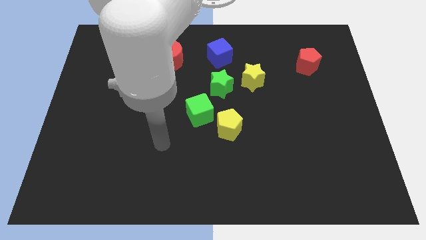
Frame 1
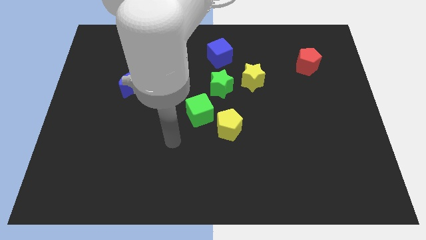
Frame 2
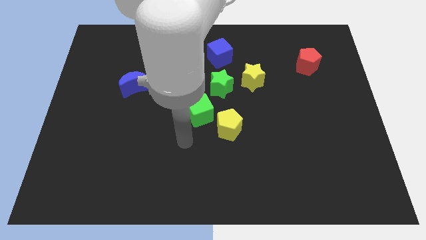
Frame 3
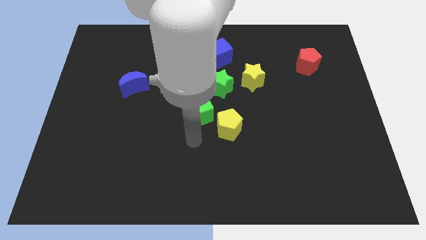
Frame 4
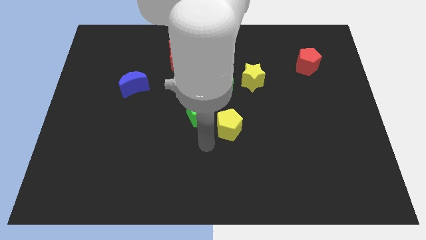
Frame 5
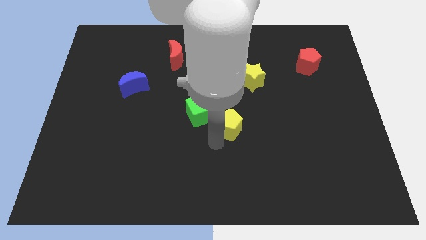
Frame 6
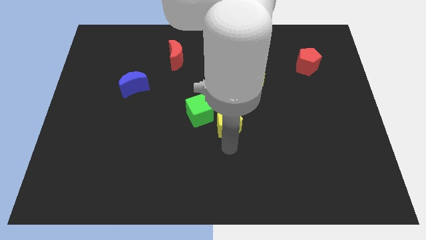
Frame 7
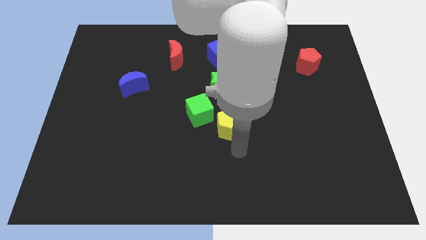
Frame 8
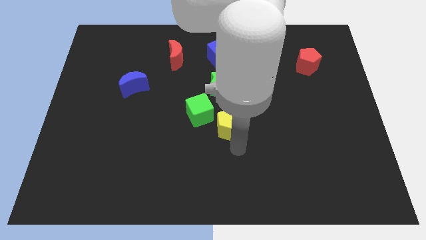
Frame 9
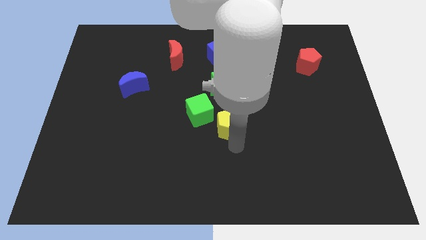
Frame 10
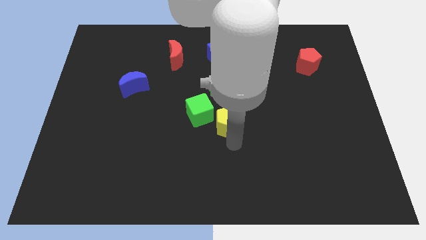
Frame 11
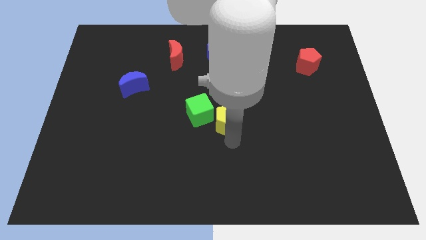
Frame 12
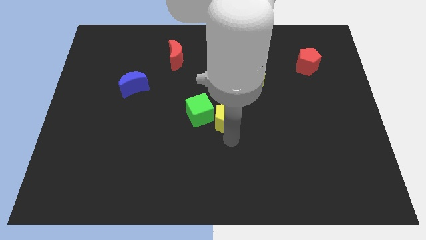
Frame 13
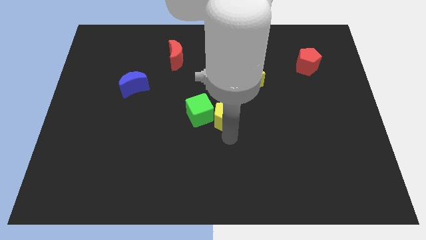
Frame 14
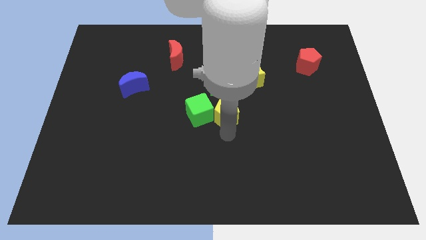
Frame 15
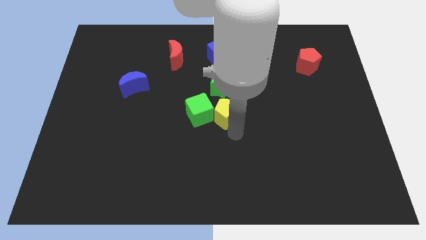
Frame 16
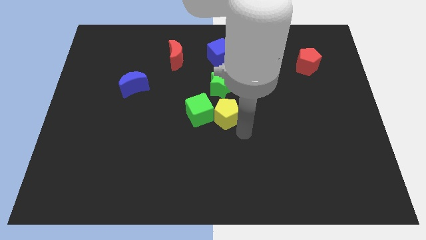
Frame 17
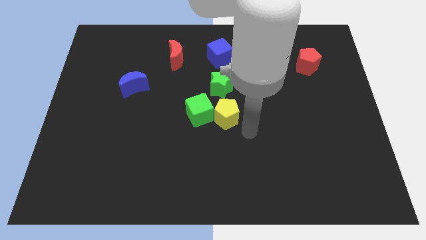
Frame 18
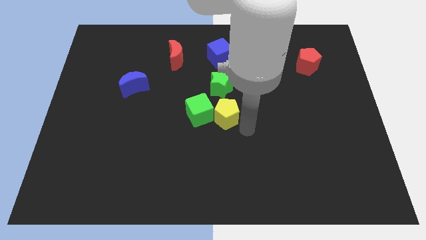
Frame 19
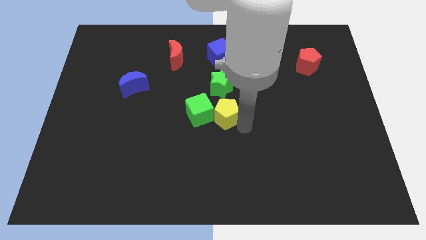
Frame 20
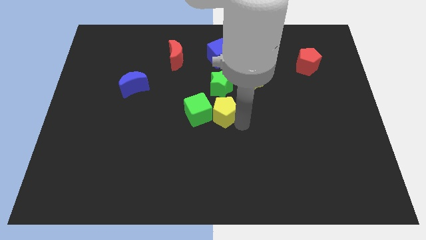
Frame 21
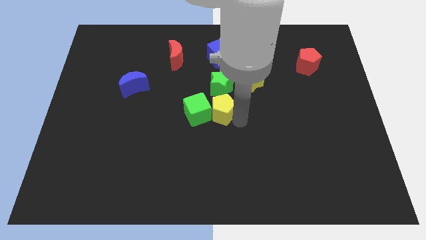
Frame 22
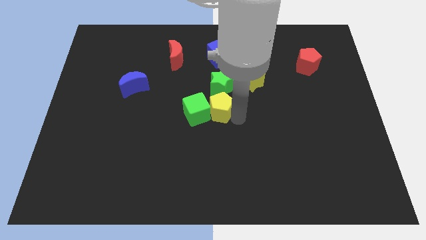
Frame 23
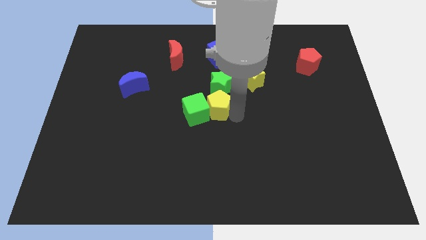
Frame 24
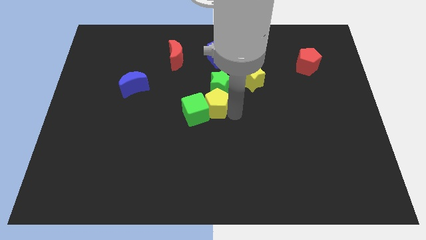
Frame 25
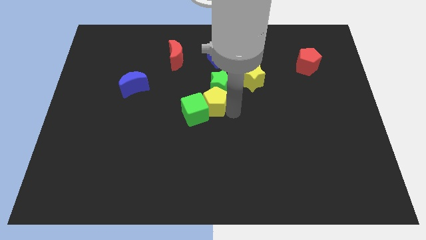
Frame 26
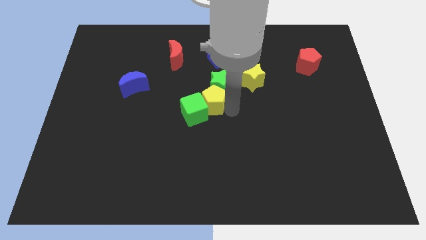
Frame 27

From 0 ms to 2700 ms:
move the yellow pentagon a bit diagonally up and left

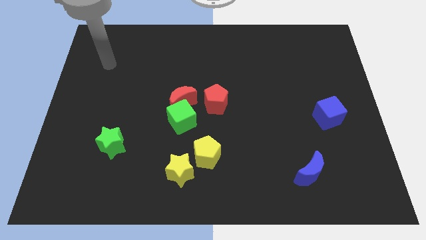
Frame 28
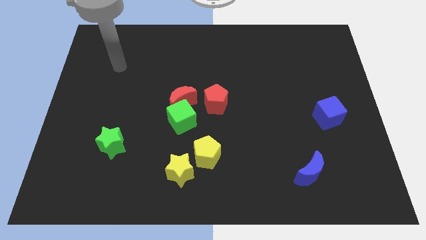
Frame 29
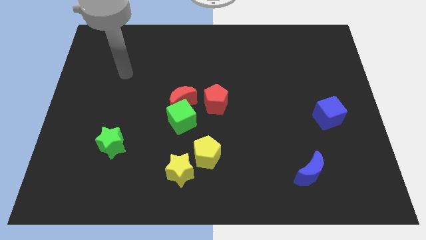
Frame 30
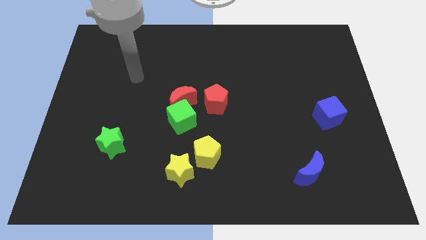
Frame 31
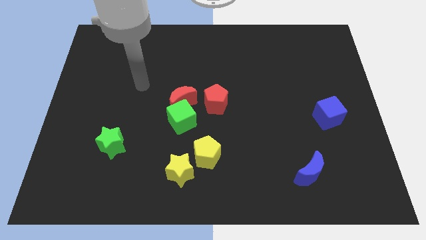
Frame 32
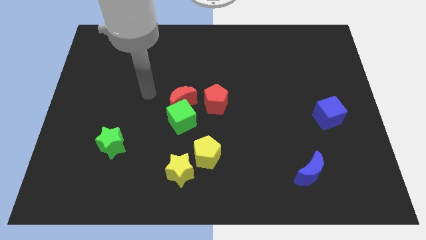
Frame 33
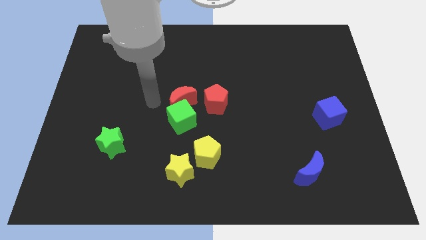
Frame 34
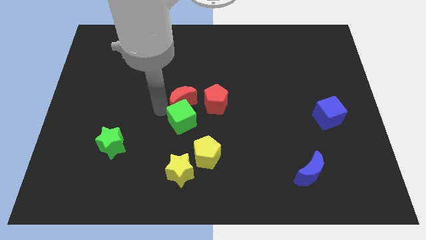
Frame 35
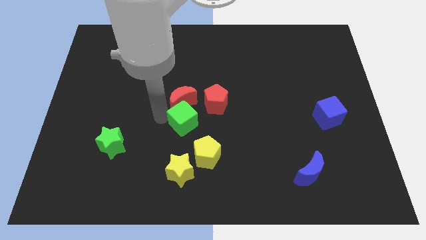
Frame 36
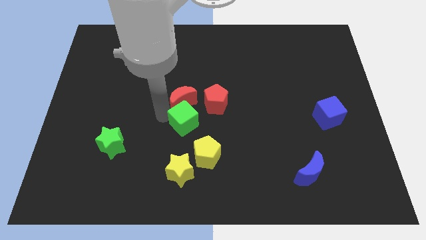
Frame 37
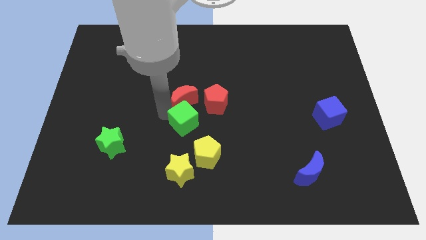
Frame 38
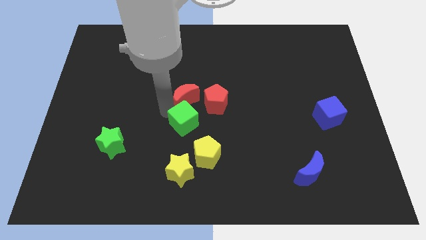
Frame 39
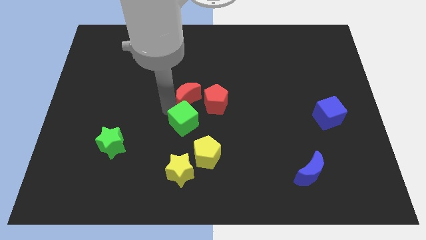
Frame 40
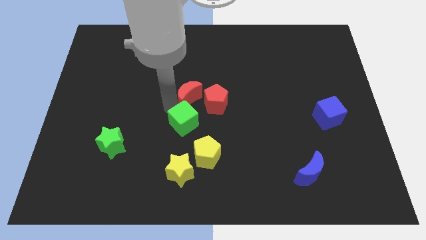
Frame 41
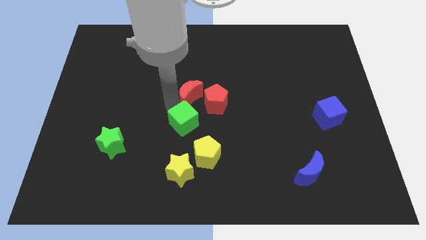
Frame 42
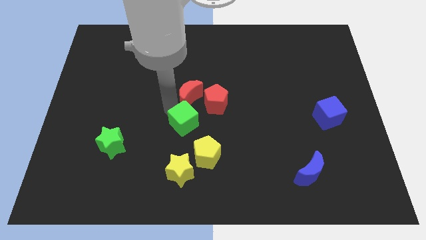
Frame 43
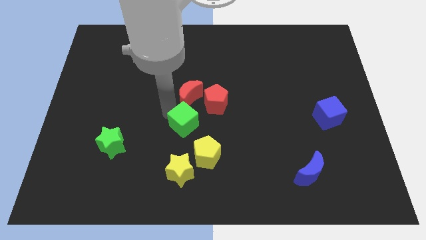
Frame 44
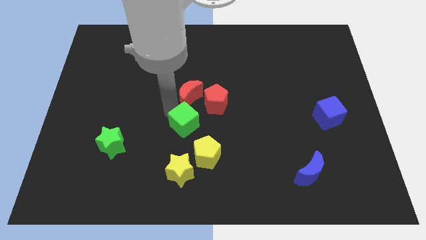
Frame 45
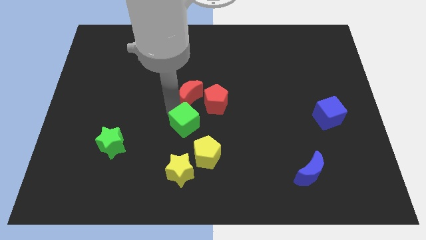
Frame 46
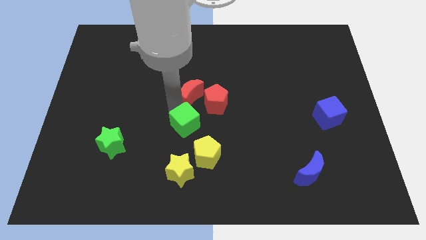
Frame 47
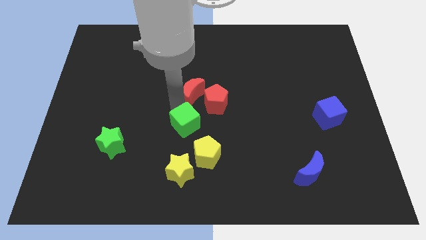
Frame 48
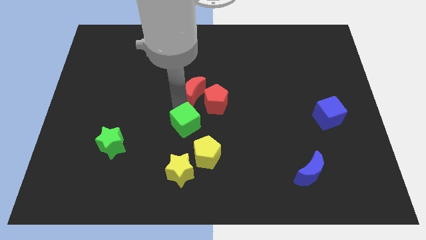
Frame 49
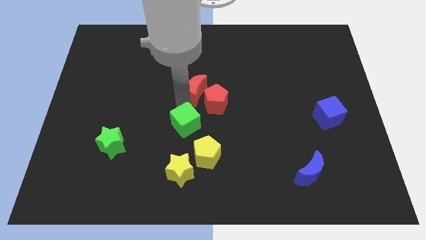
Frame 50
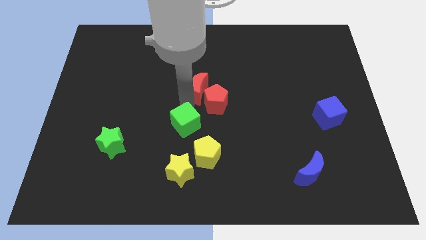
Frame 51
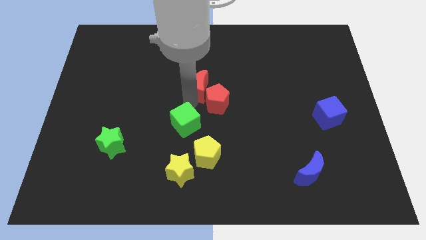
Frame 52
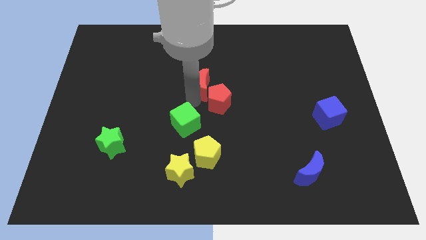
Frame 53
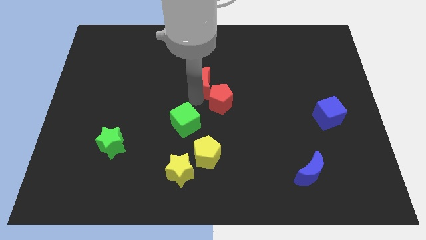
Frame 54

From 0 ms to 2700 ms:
slightly move the red moon up and to the right diagonally

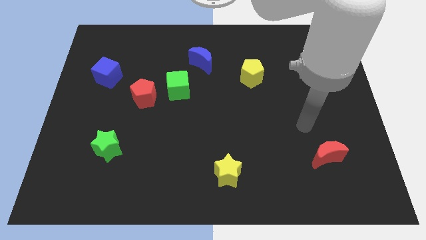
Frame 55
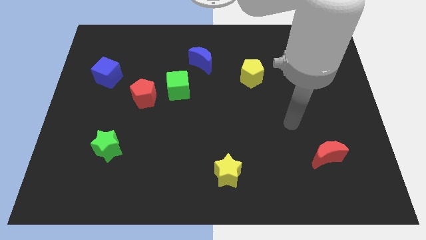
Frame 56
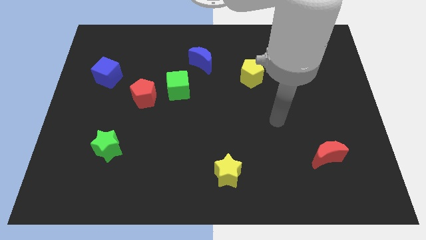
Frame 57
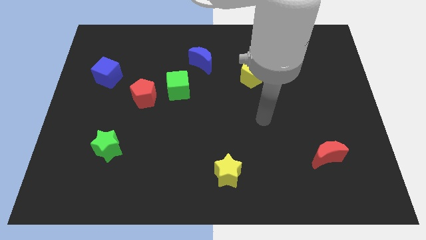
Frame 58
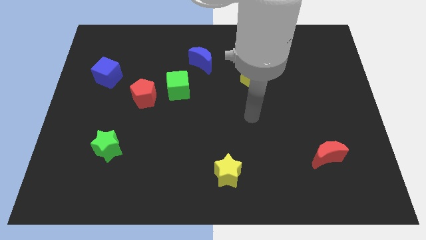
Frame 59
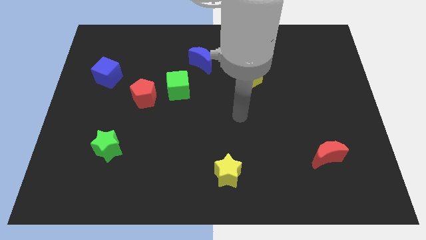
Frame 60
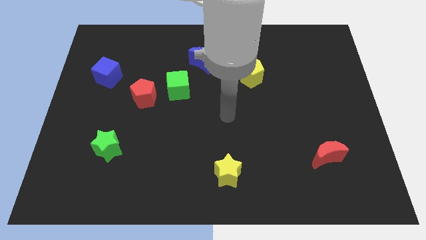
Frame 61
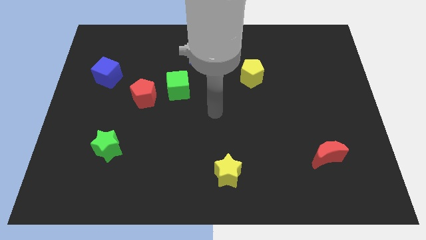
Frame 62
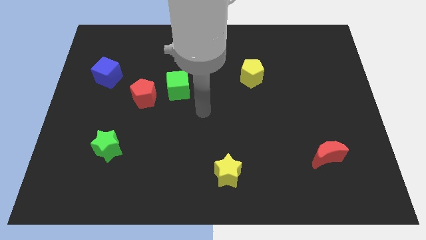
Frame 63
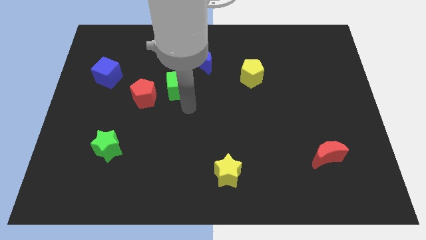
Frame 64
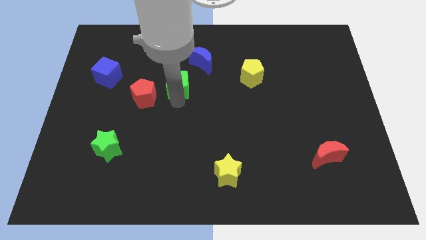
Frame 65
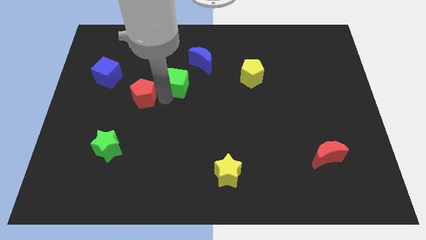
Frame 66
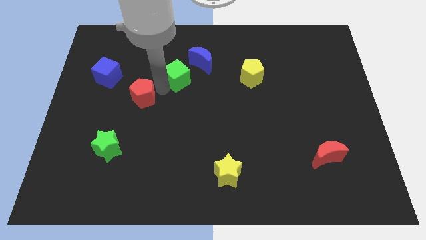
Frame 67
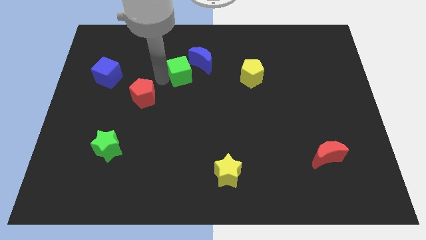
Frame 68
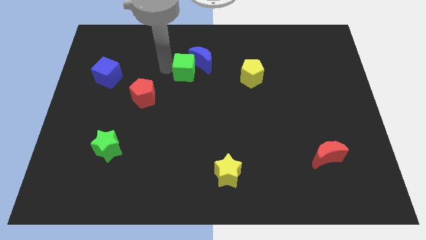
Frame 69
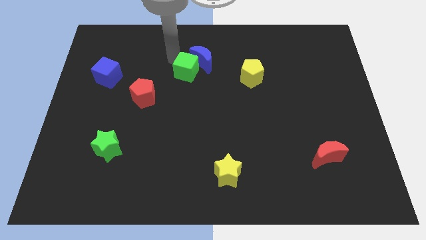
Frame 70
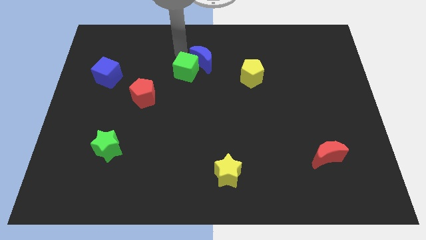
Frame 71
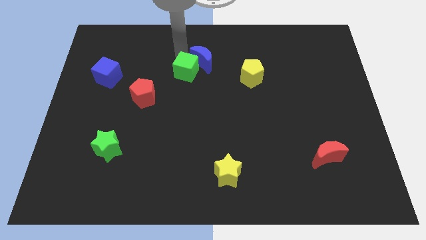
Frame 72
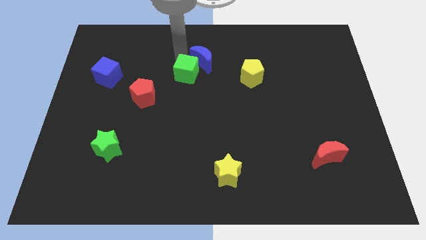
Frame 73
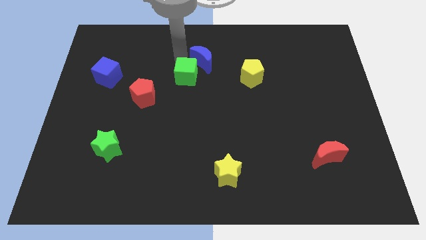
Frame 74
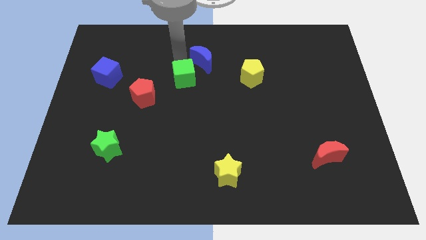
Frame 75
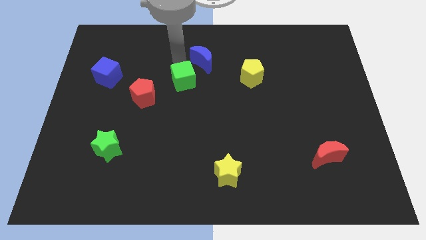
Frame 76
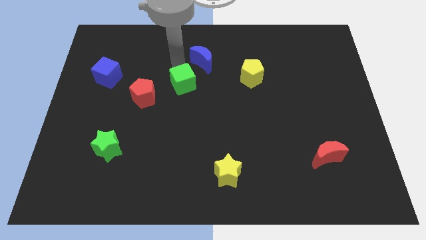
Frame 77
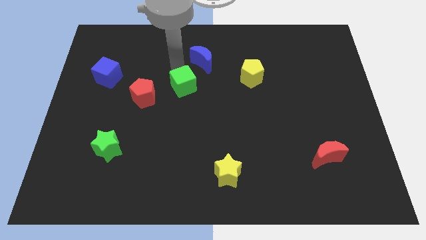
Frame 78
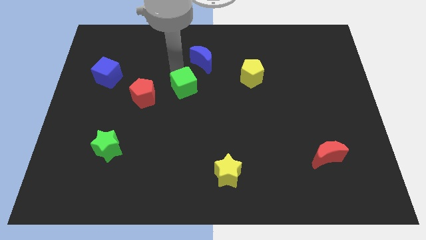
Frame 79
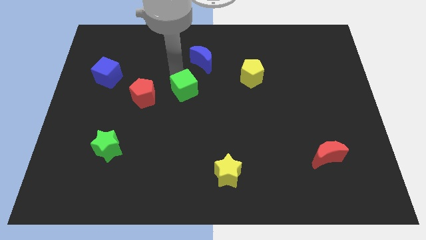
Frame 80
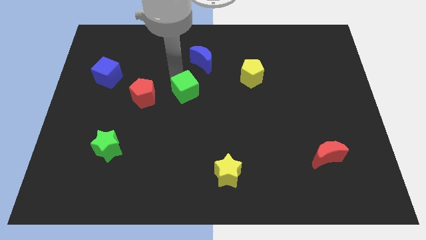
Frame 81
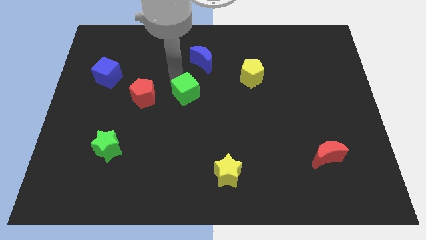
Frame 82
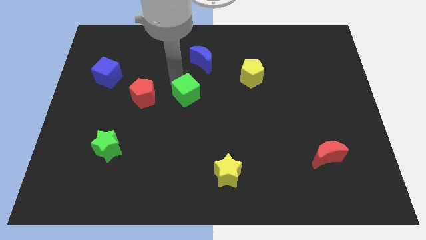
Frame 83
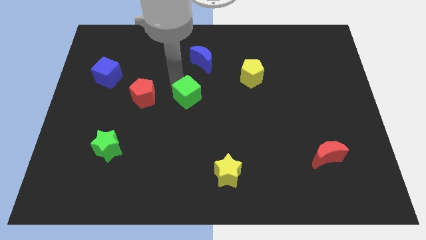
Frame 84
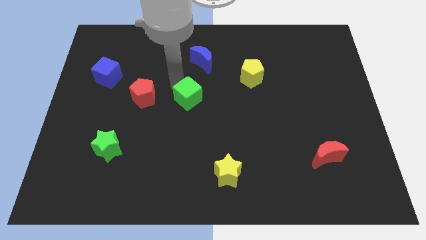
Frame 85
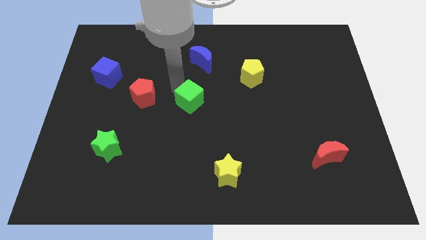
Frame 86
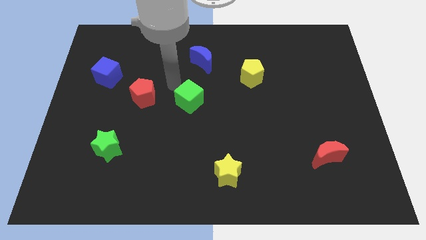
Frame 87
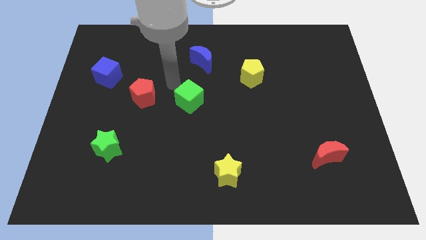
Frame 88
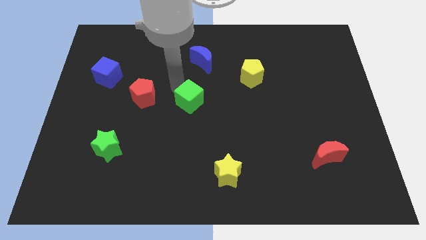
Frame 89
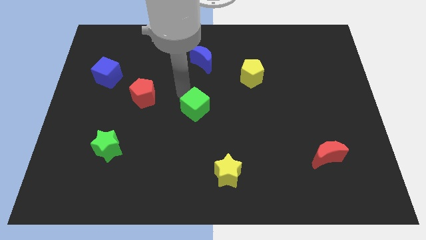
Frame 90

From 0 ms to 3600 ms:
slightly move the green cube downwards and to the right
